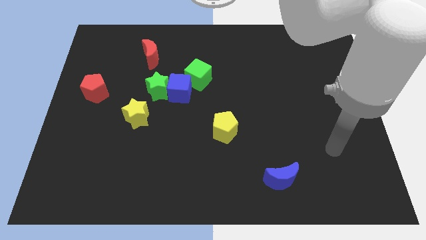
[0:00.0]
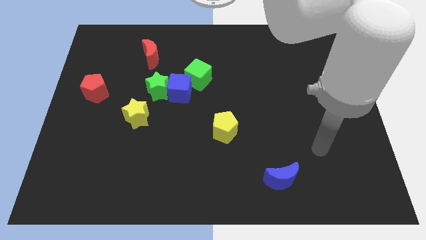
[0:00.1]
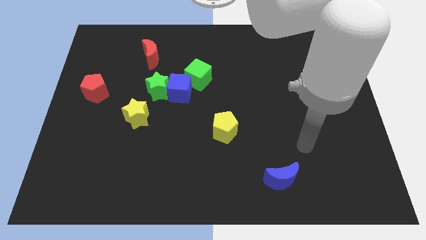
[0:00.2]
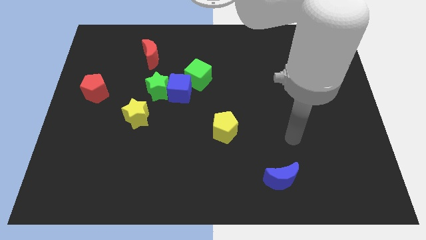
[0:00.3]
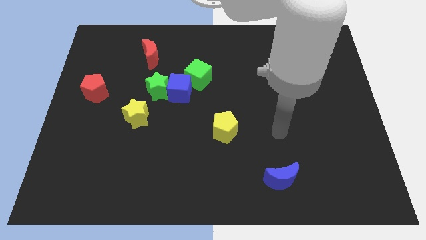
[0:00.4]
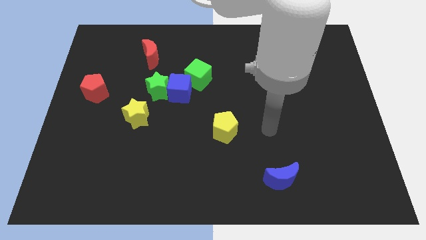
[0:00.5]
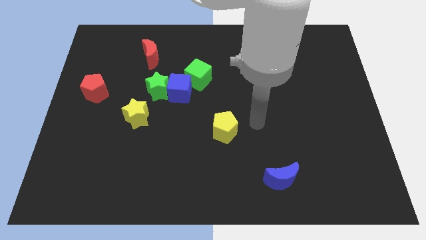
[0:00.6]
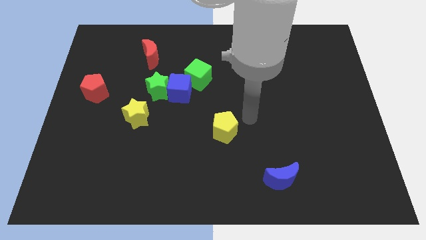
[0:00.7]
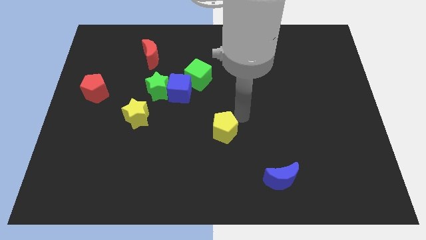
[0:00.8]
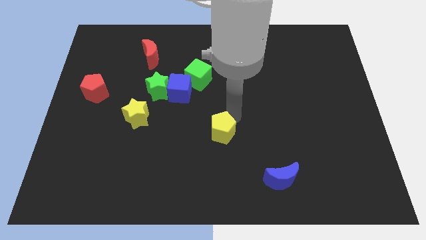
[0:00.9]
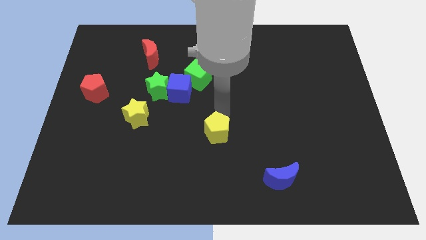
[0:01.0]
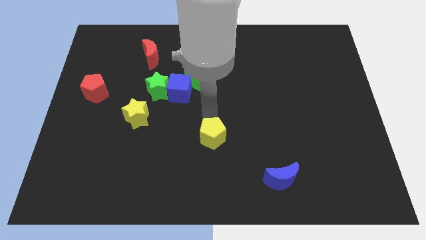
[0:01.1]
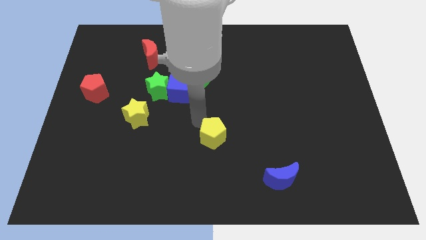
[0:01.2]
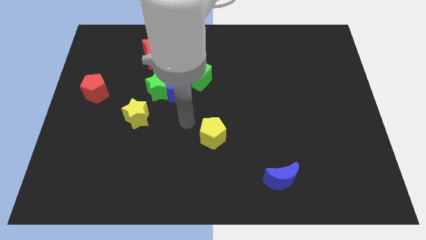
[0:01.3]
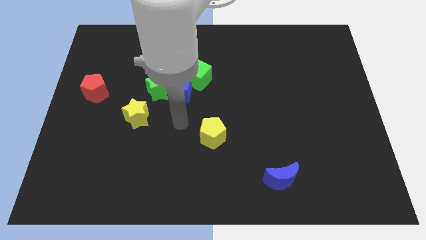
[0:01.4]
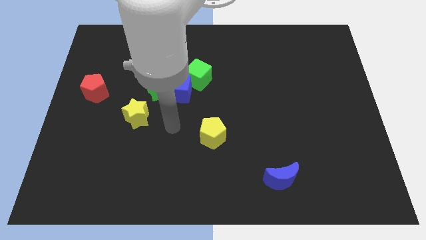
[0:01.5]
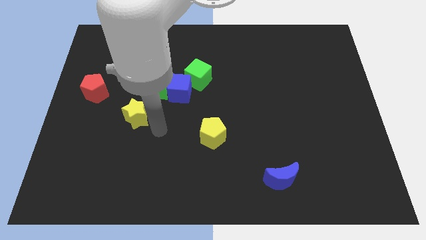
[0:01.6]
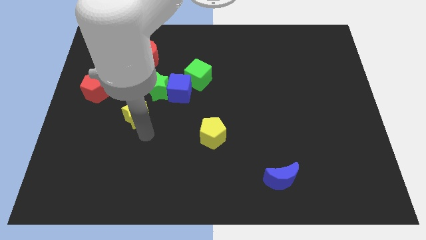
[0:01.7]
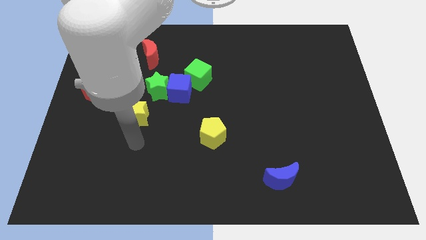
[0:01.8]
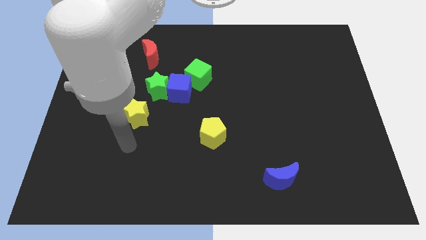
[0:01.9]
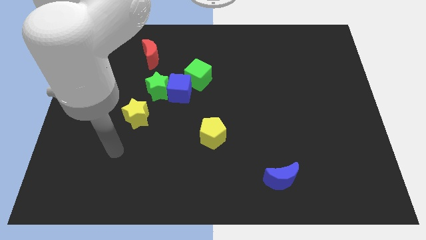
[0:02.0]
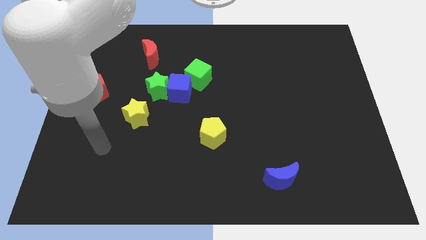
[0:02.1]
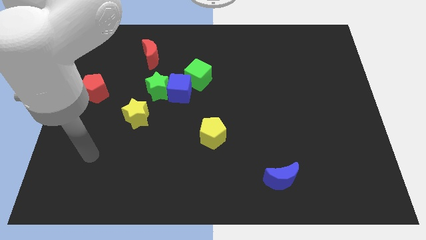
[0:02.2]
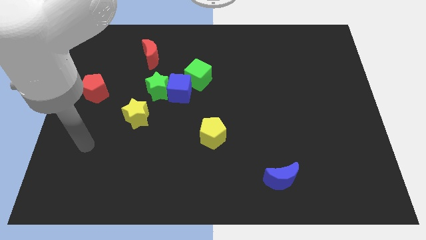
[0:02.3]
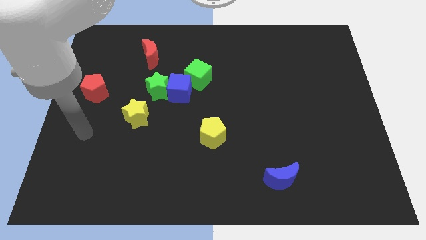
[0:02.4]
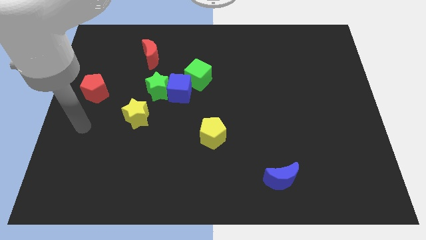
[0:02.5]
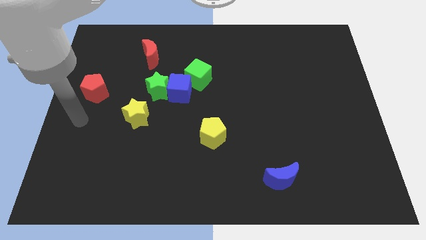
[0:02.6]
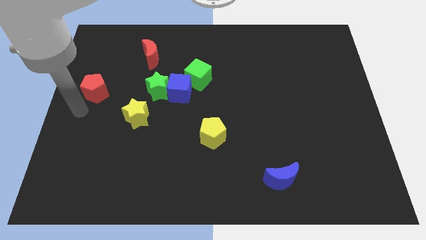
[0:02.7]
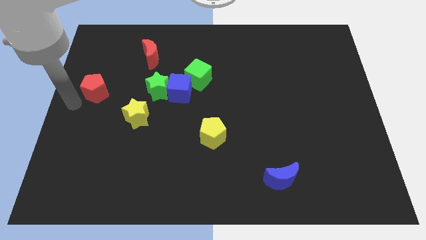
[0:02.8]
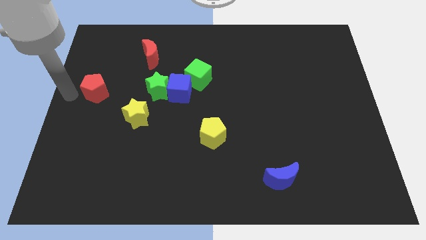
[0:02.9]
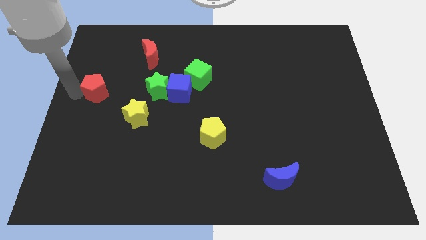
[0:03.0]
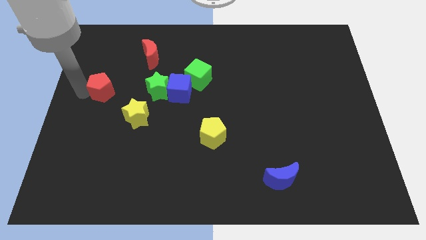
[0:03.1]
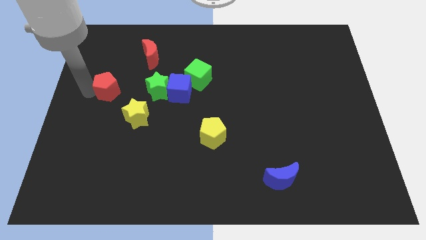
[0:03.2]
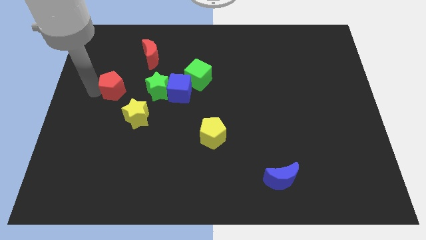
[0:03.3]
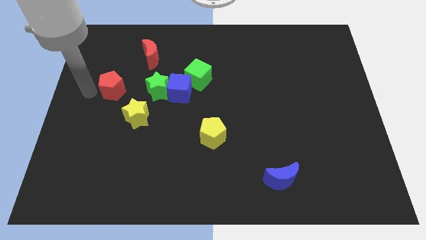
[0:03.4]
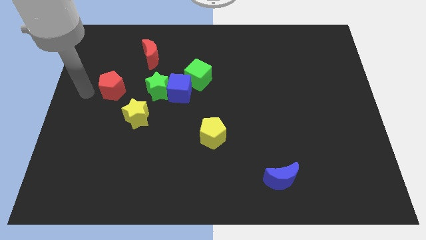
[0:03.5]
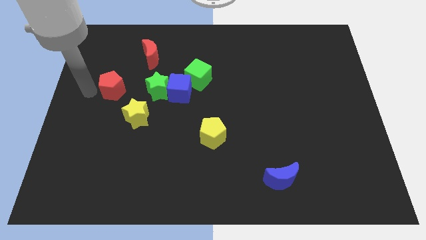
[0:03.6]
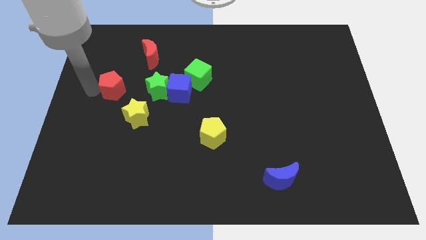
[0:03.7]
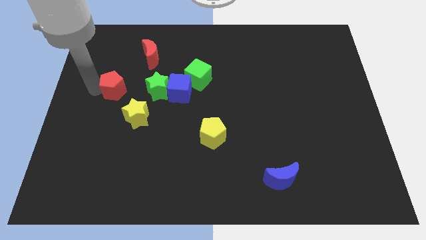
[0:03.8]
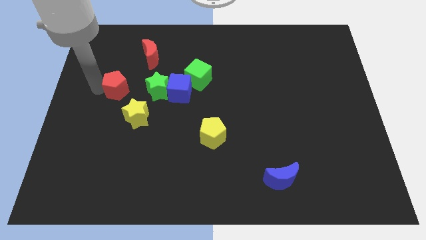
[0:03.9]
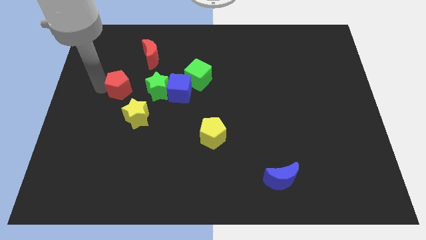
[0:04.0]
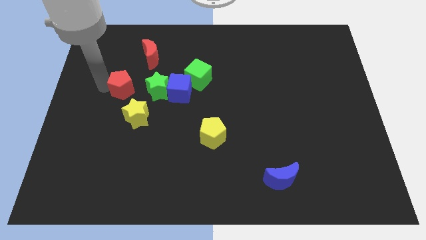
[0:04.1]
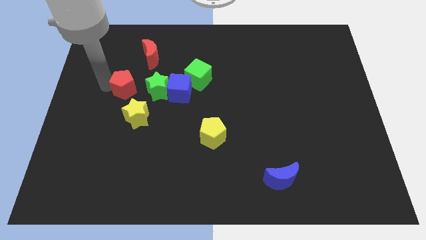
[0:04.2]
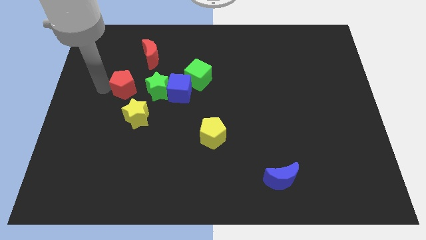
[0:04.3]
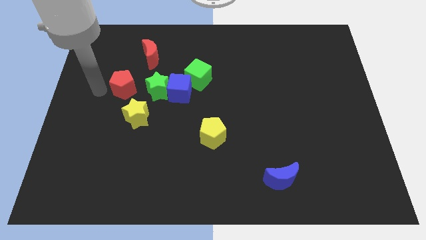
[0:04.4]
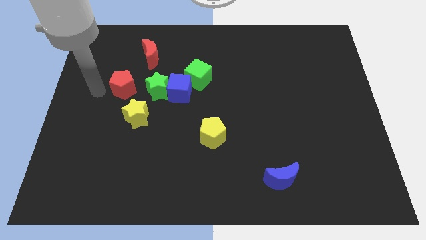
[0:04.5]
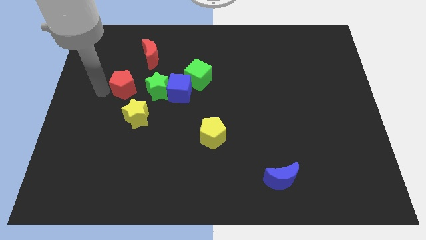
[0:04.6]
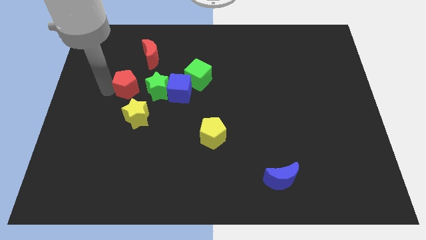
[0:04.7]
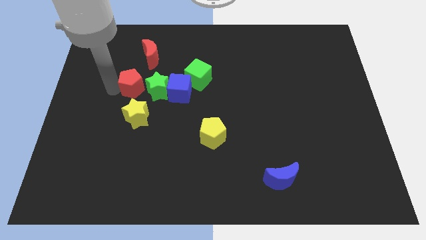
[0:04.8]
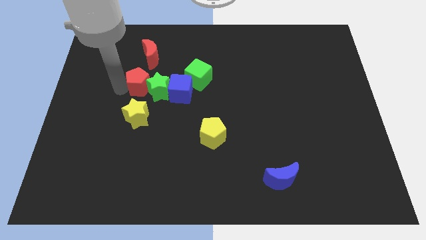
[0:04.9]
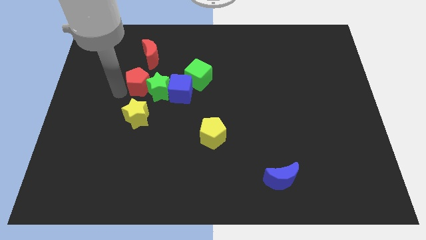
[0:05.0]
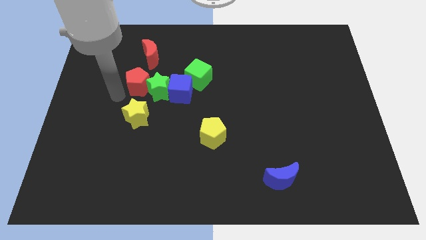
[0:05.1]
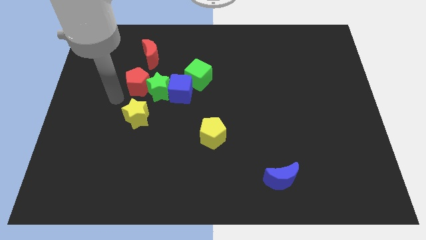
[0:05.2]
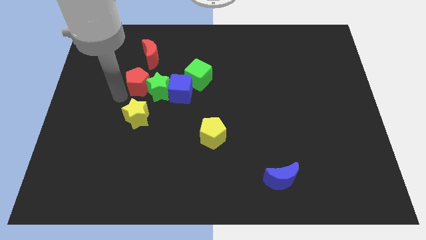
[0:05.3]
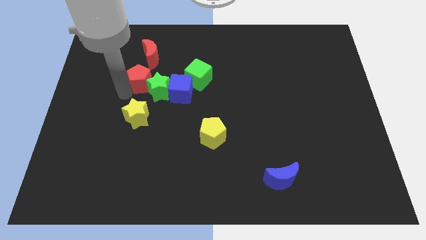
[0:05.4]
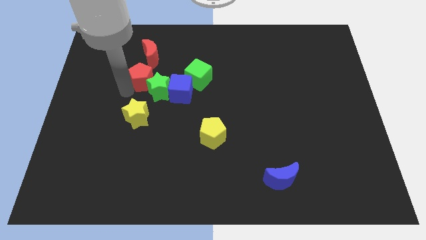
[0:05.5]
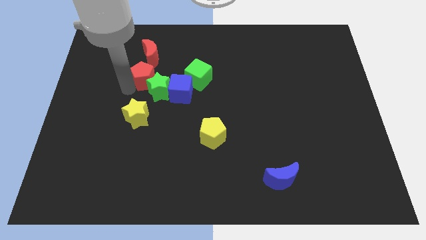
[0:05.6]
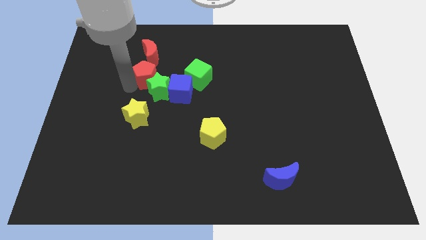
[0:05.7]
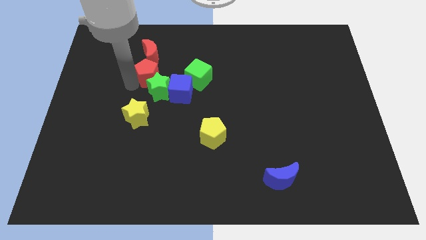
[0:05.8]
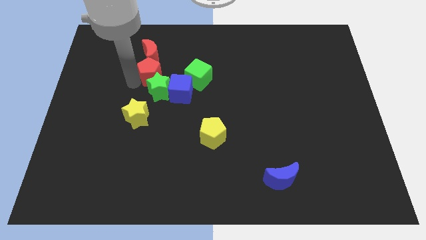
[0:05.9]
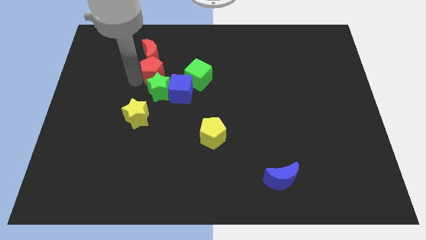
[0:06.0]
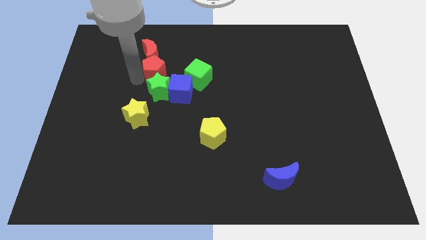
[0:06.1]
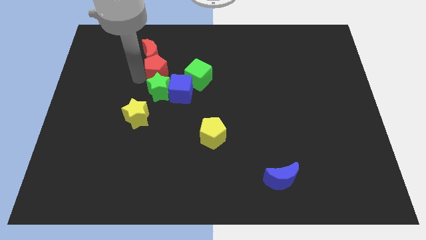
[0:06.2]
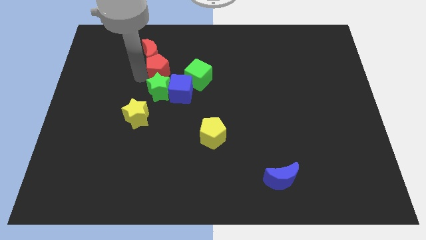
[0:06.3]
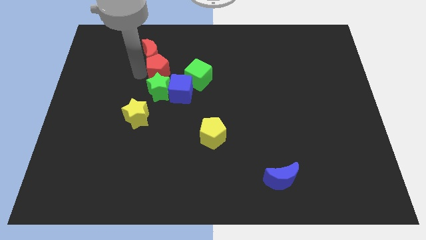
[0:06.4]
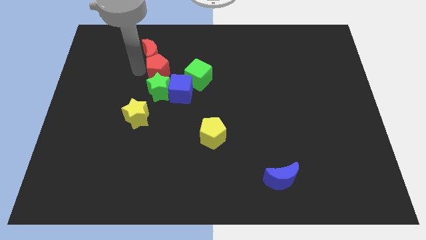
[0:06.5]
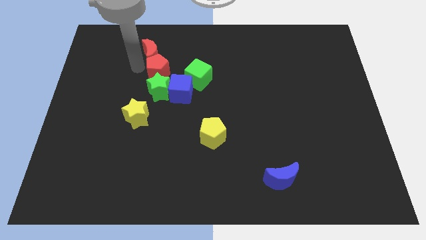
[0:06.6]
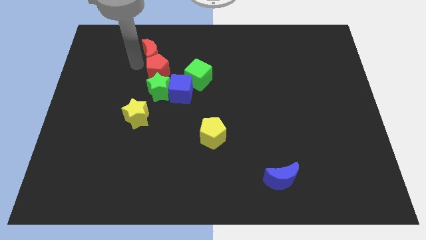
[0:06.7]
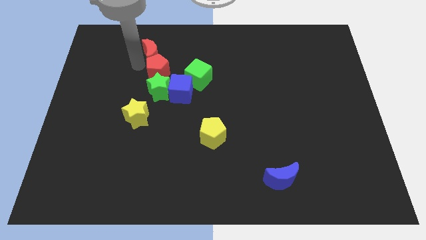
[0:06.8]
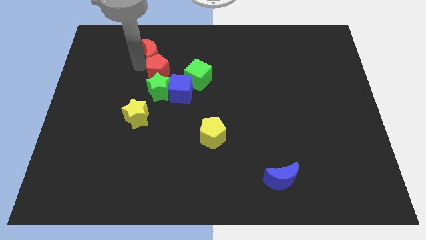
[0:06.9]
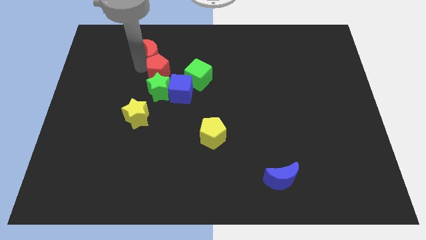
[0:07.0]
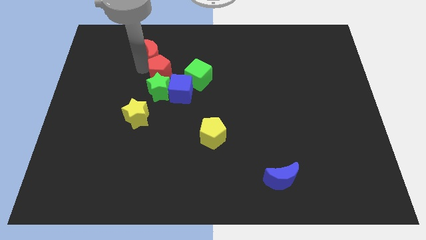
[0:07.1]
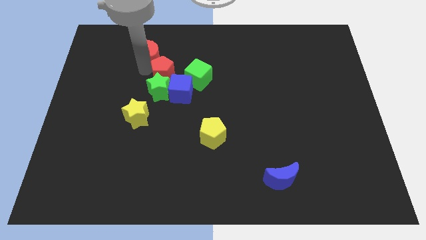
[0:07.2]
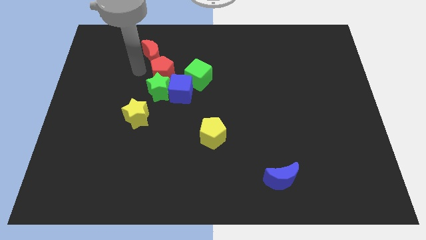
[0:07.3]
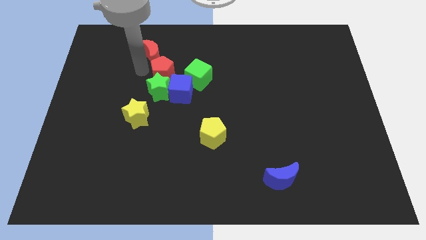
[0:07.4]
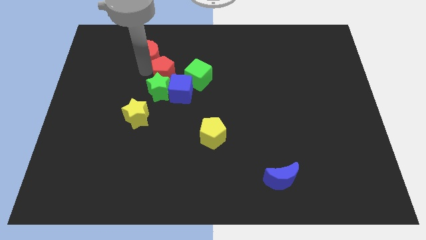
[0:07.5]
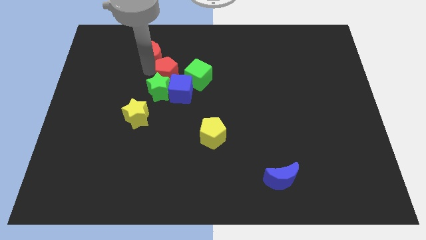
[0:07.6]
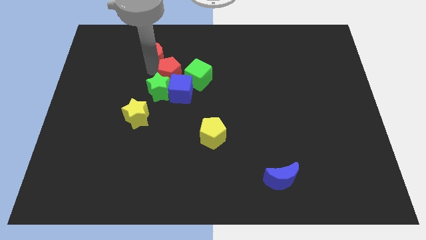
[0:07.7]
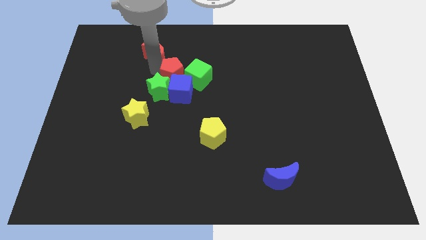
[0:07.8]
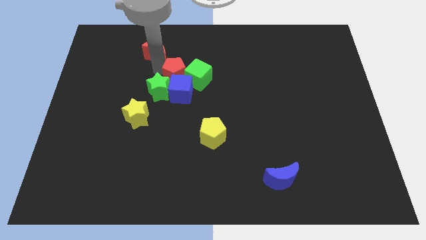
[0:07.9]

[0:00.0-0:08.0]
put the red pentagon close to the green cube
